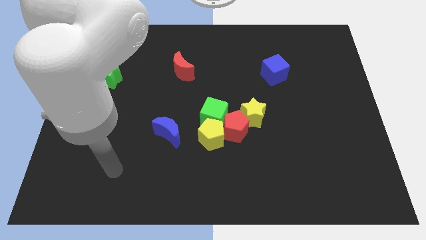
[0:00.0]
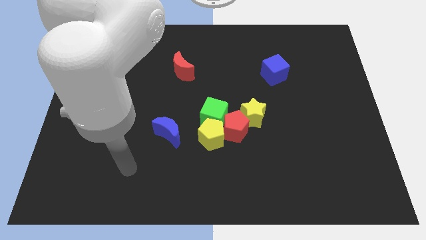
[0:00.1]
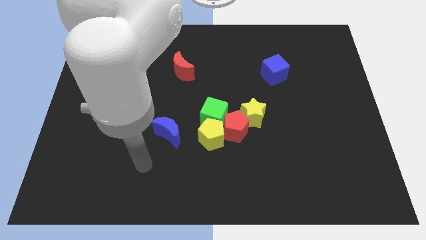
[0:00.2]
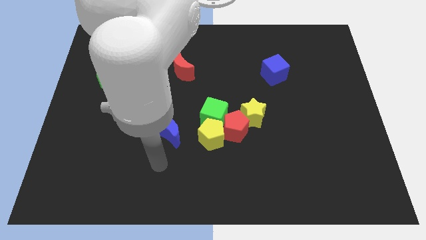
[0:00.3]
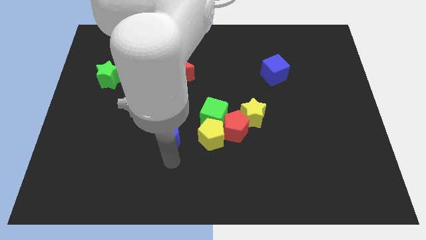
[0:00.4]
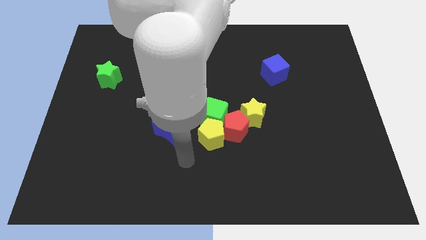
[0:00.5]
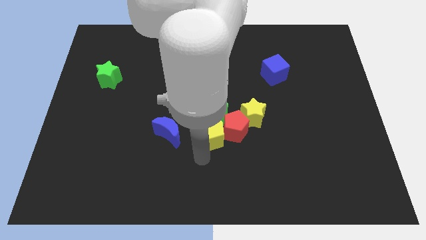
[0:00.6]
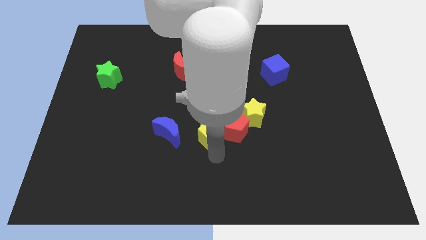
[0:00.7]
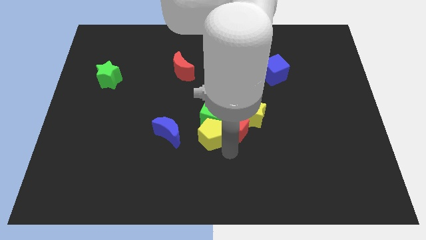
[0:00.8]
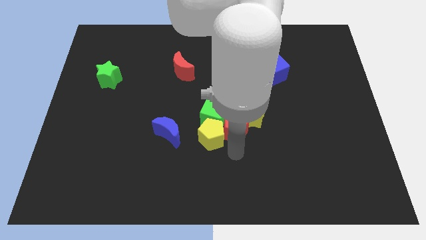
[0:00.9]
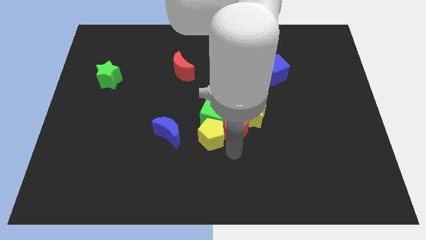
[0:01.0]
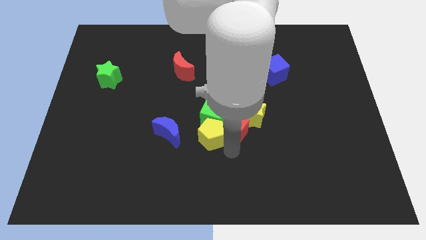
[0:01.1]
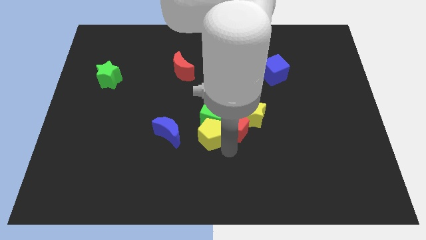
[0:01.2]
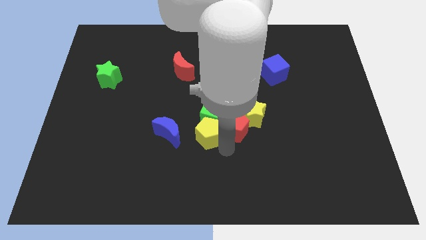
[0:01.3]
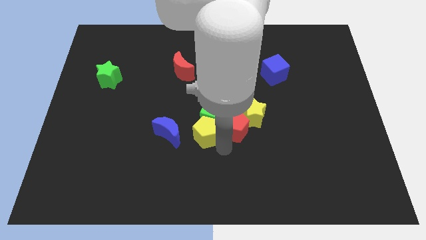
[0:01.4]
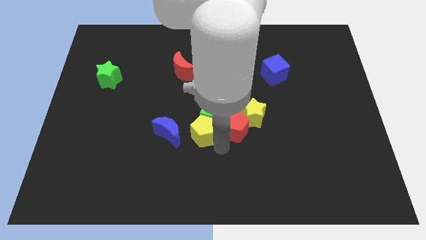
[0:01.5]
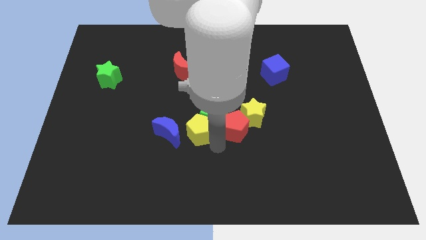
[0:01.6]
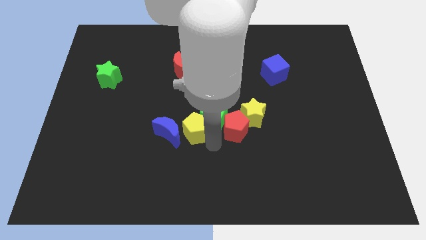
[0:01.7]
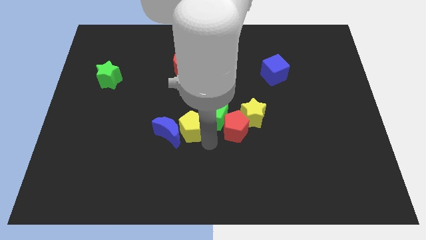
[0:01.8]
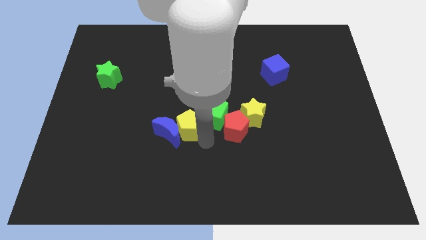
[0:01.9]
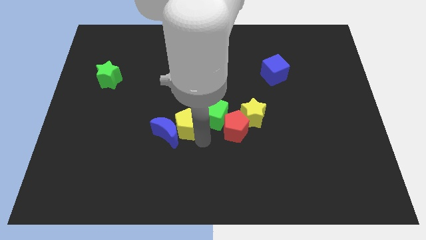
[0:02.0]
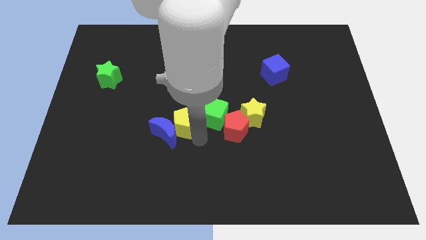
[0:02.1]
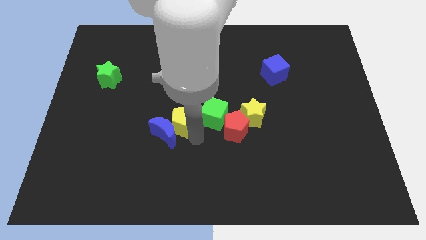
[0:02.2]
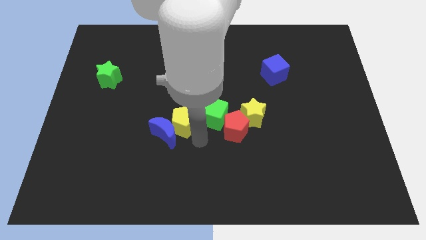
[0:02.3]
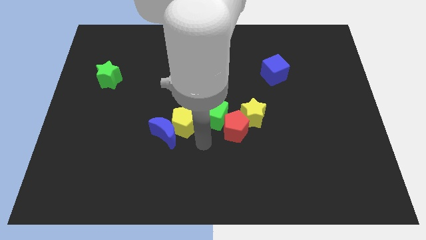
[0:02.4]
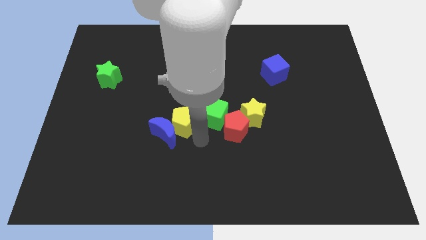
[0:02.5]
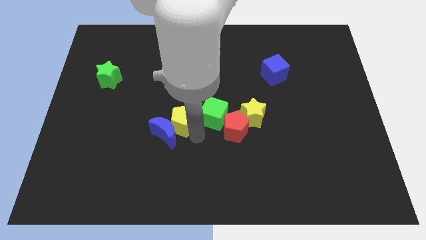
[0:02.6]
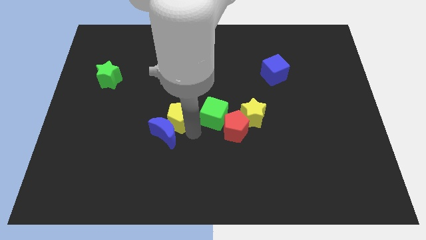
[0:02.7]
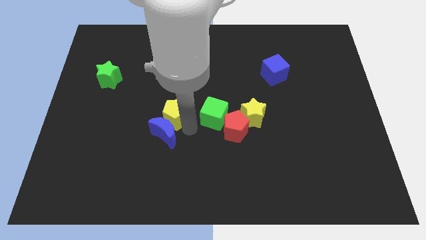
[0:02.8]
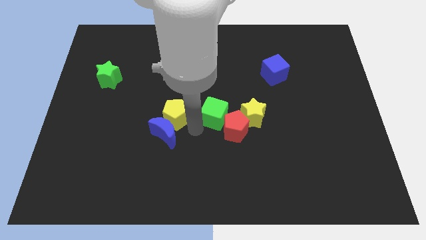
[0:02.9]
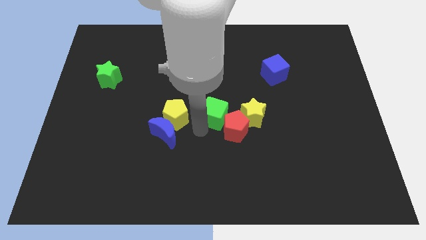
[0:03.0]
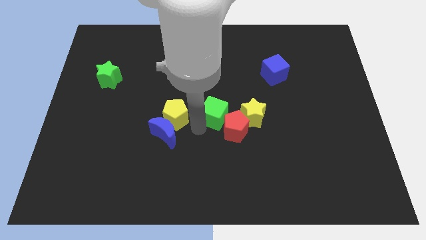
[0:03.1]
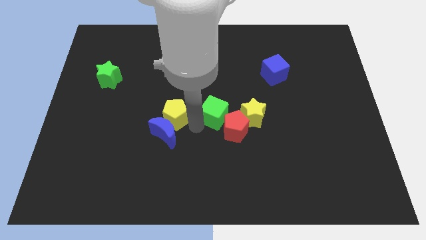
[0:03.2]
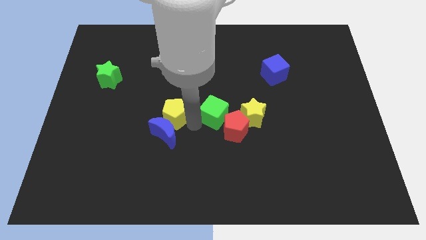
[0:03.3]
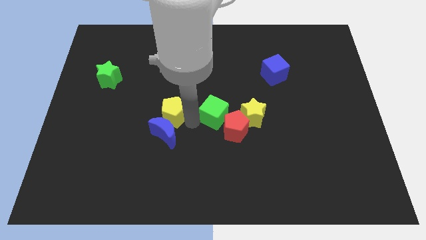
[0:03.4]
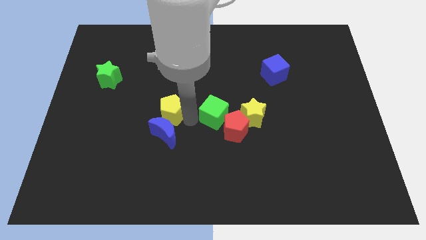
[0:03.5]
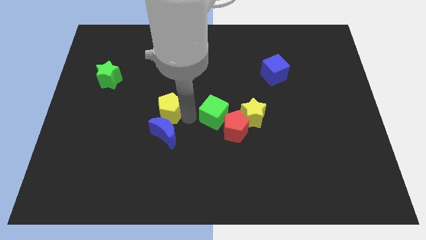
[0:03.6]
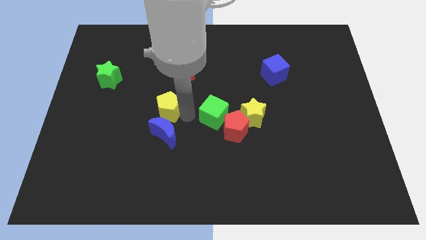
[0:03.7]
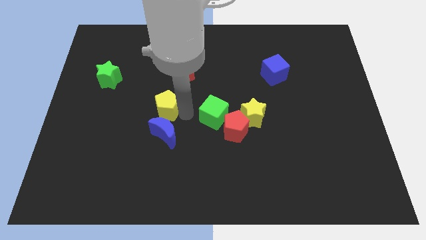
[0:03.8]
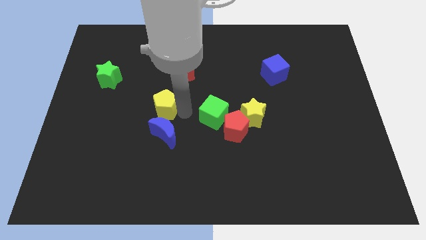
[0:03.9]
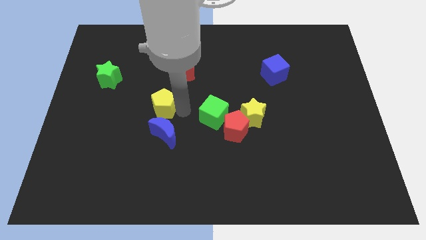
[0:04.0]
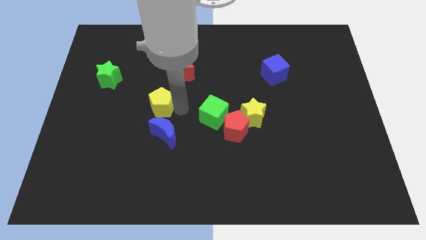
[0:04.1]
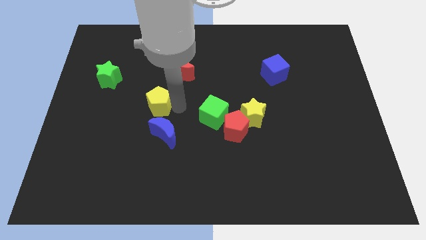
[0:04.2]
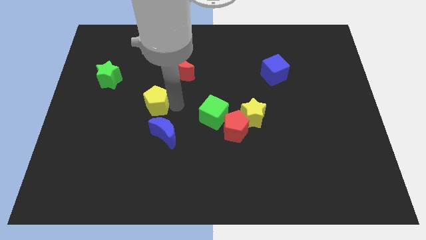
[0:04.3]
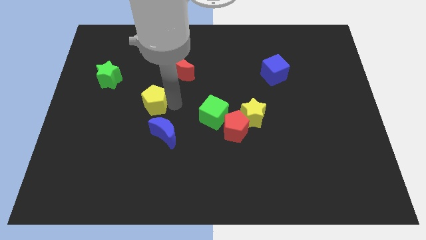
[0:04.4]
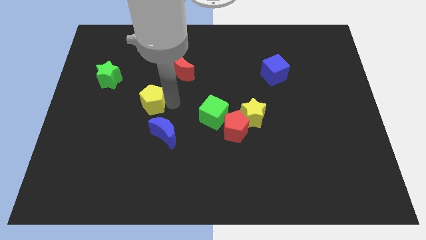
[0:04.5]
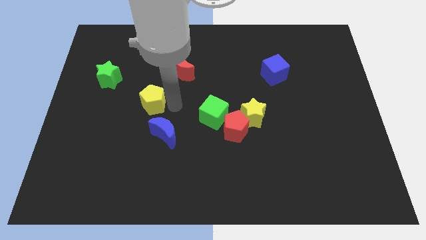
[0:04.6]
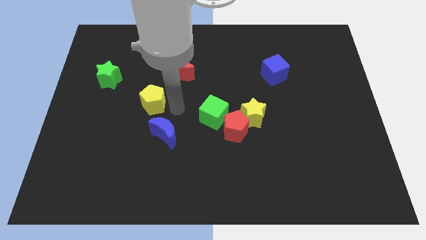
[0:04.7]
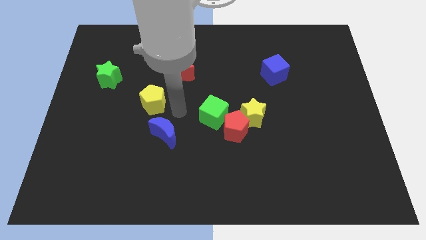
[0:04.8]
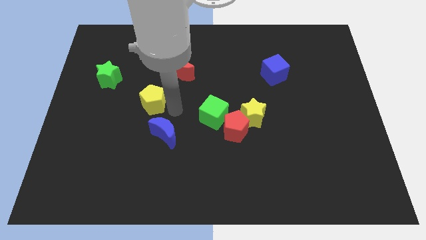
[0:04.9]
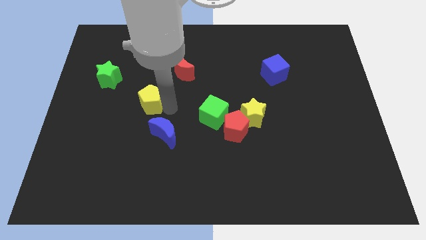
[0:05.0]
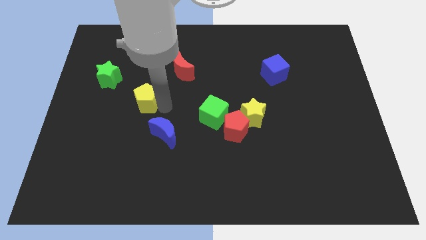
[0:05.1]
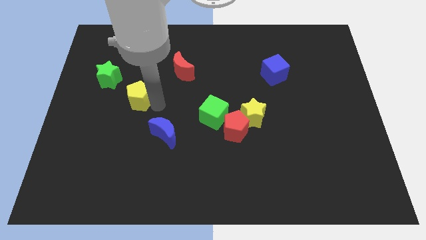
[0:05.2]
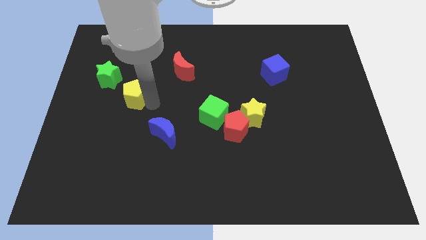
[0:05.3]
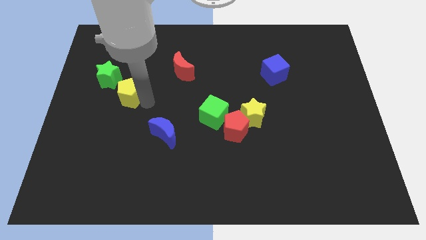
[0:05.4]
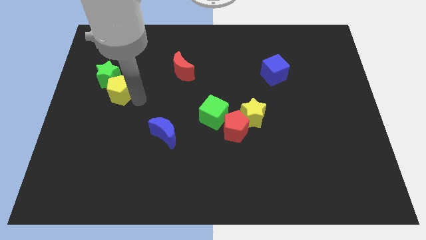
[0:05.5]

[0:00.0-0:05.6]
slide the yellow pentagon close to the green star

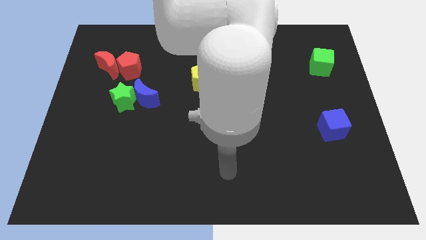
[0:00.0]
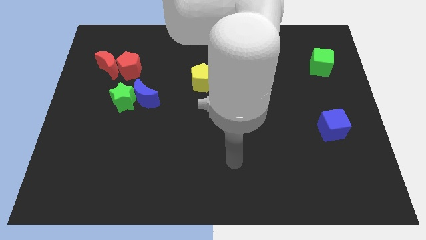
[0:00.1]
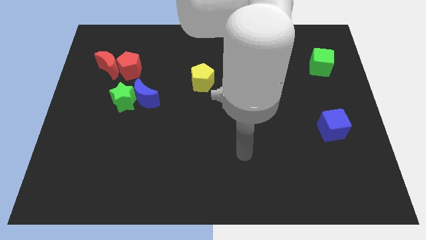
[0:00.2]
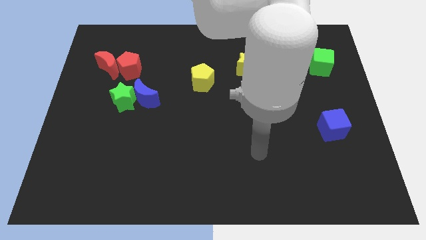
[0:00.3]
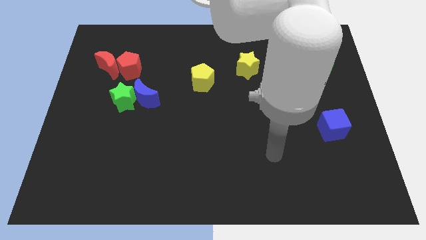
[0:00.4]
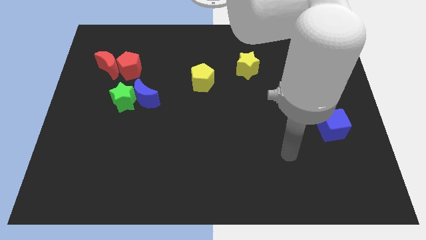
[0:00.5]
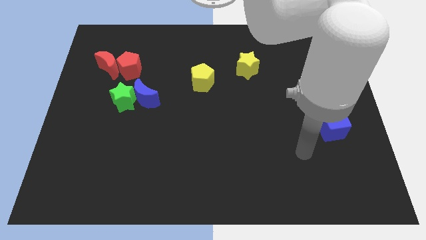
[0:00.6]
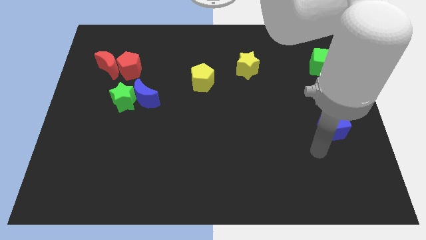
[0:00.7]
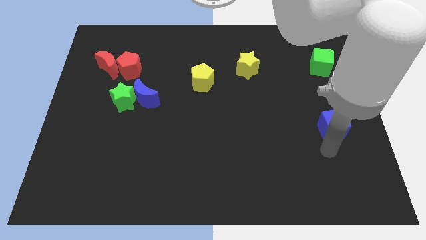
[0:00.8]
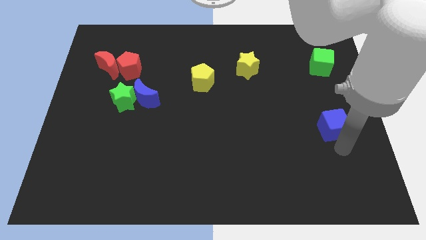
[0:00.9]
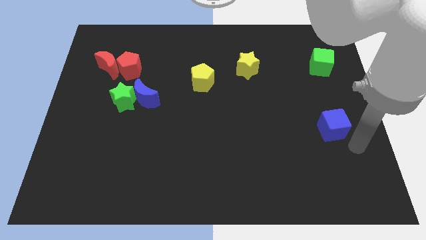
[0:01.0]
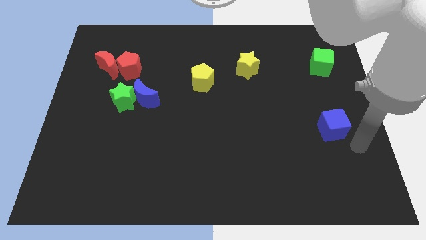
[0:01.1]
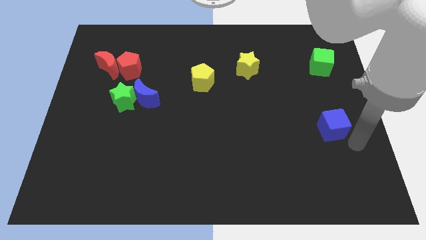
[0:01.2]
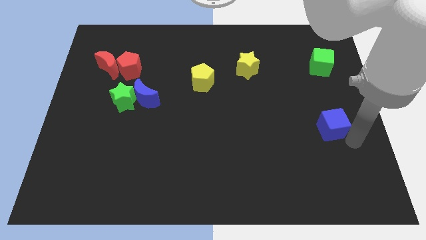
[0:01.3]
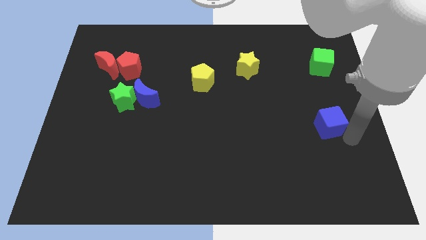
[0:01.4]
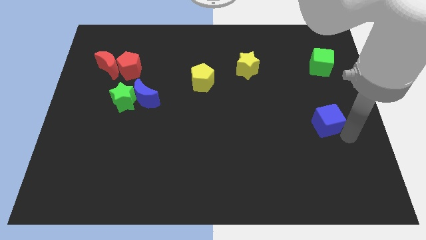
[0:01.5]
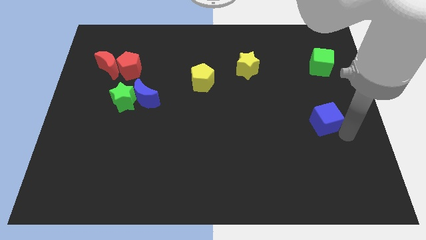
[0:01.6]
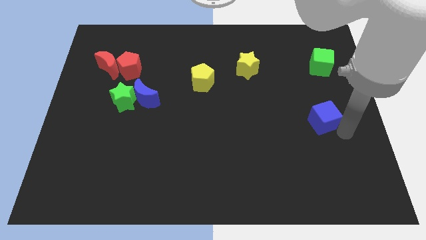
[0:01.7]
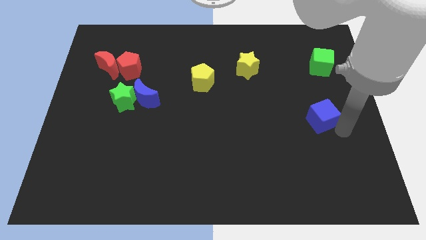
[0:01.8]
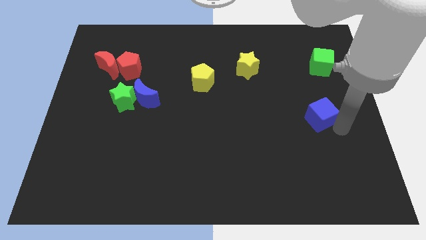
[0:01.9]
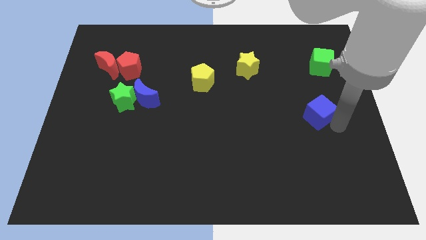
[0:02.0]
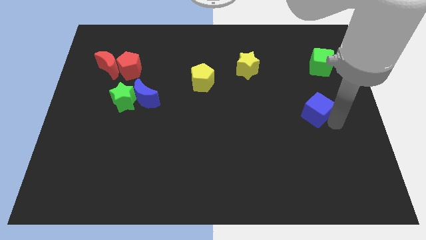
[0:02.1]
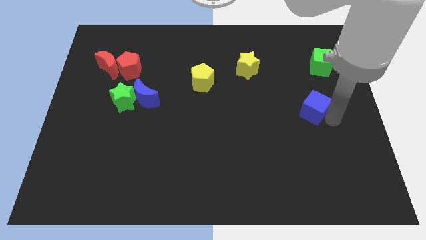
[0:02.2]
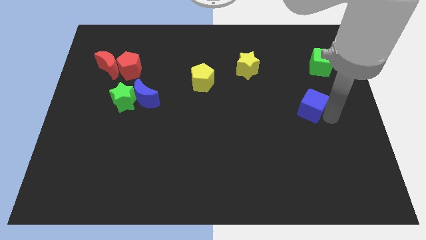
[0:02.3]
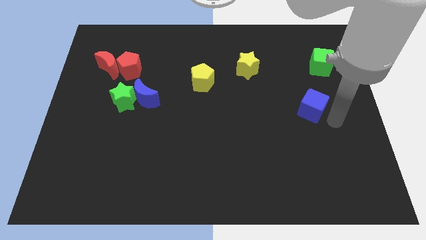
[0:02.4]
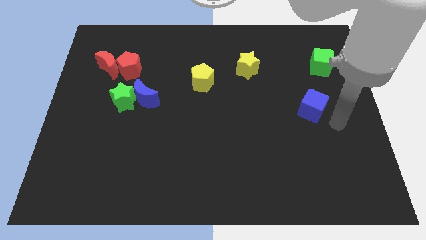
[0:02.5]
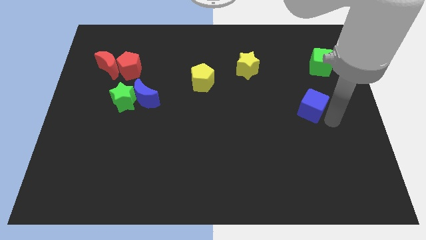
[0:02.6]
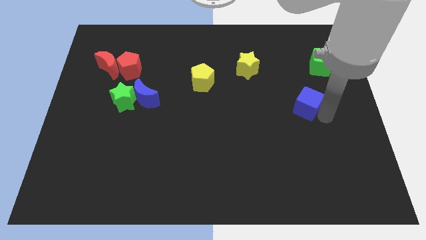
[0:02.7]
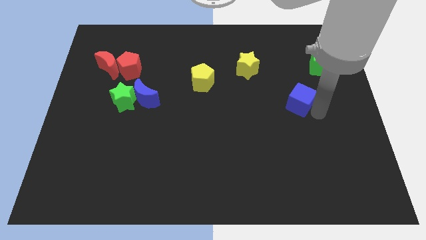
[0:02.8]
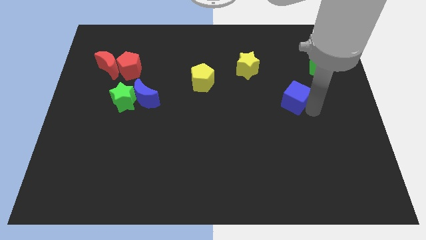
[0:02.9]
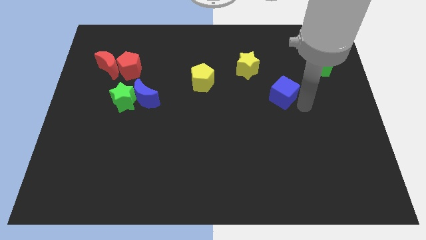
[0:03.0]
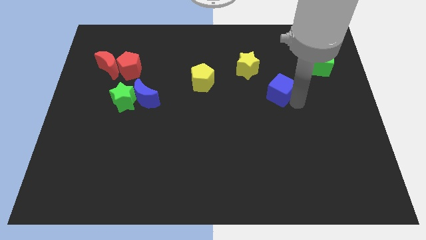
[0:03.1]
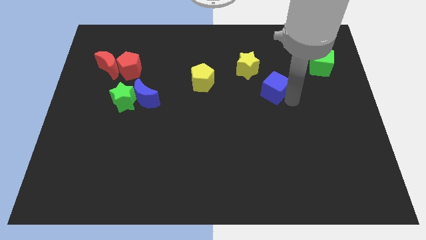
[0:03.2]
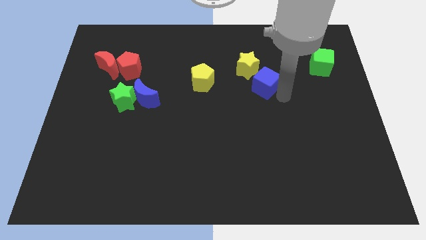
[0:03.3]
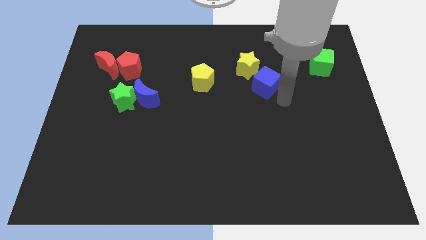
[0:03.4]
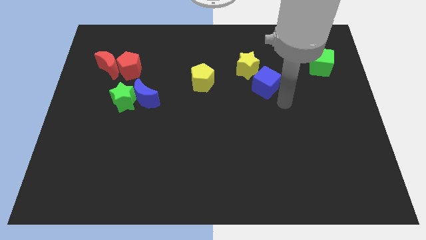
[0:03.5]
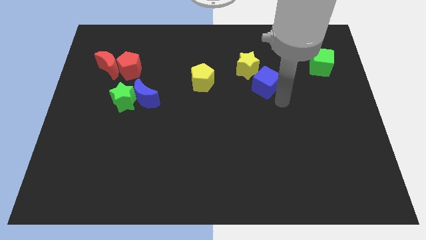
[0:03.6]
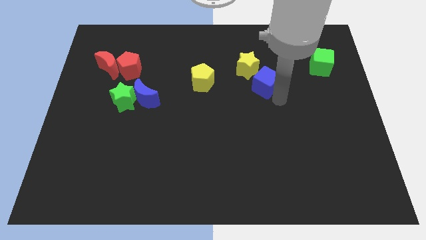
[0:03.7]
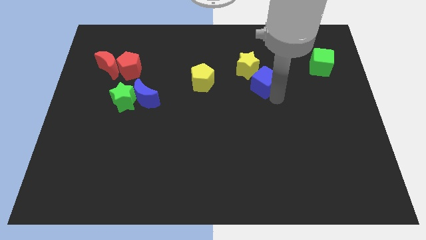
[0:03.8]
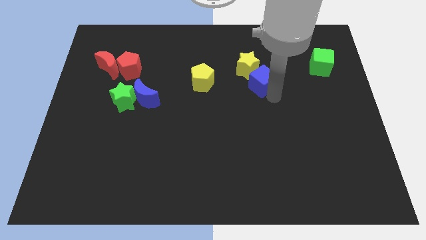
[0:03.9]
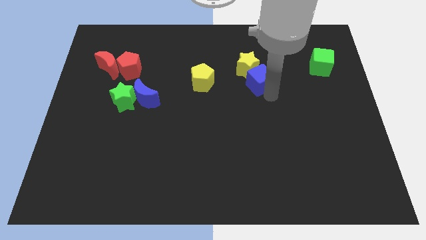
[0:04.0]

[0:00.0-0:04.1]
put the blue cube close to the yellow star
